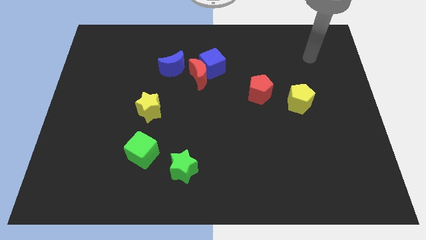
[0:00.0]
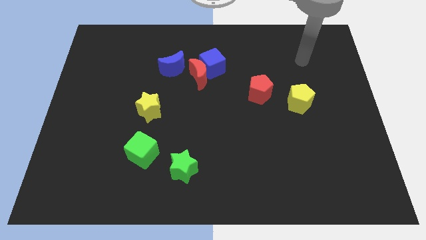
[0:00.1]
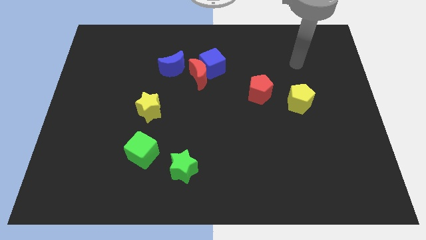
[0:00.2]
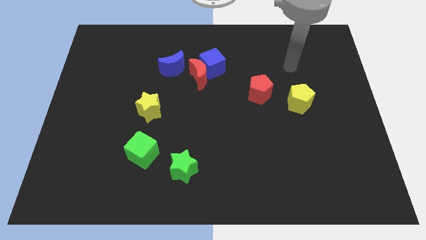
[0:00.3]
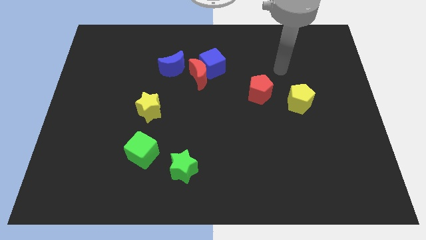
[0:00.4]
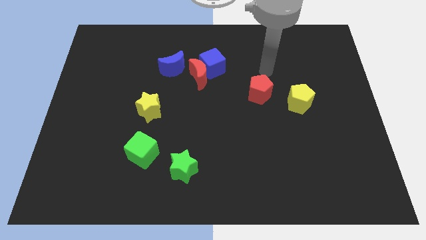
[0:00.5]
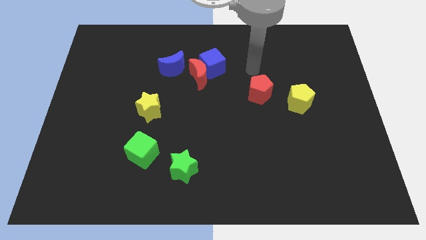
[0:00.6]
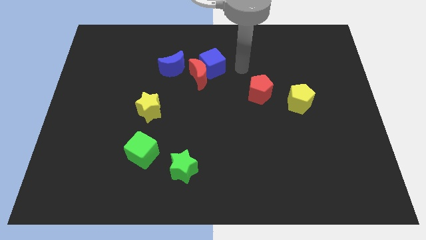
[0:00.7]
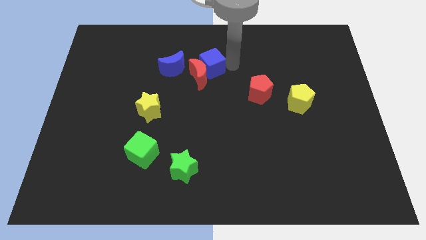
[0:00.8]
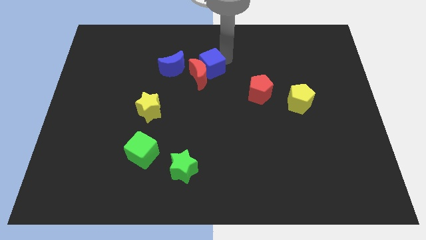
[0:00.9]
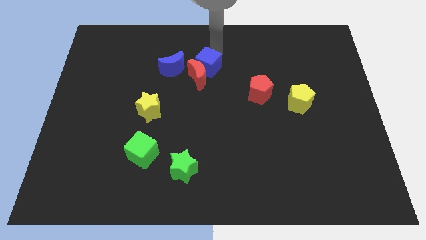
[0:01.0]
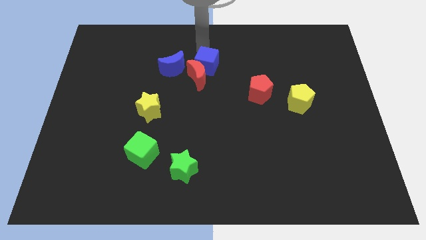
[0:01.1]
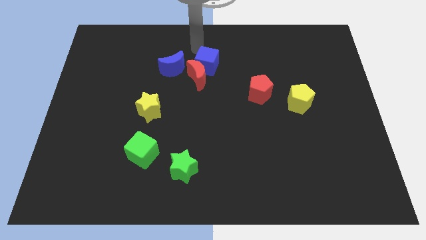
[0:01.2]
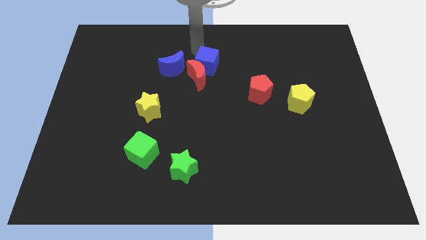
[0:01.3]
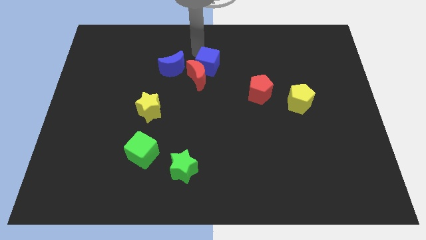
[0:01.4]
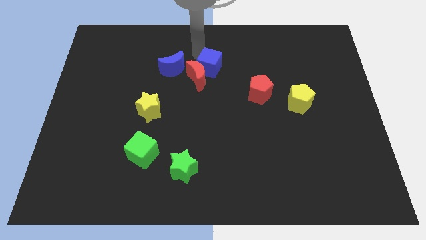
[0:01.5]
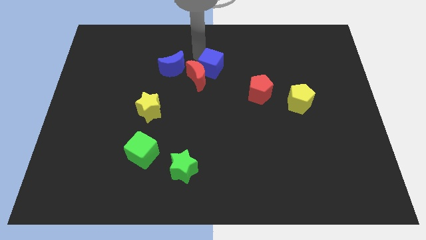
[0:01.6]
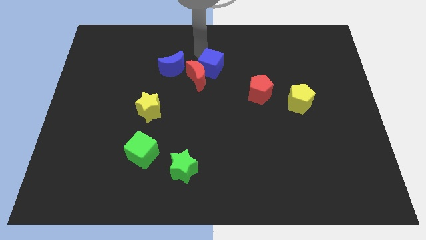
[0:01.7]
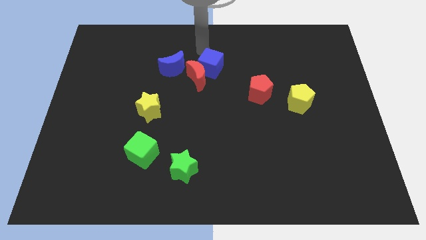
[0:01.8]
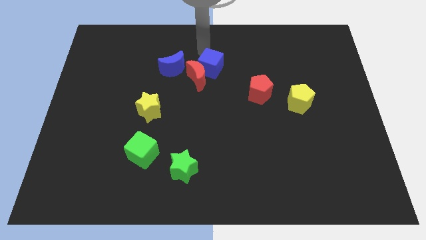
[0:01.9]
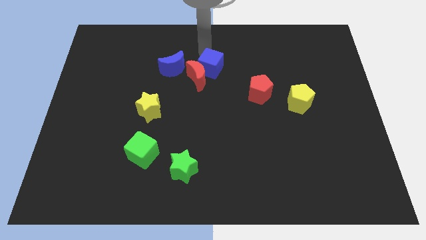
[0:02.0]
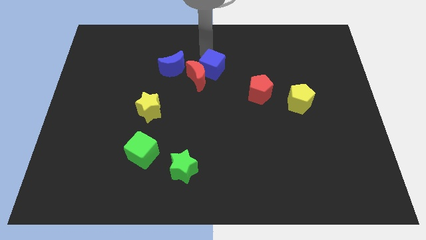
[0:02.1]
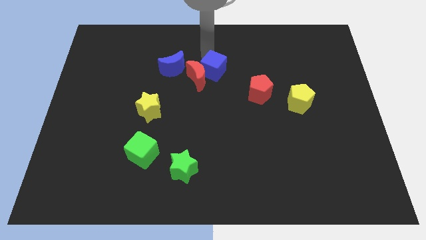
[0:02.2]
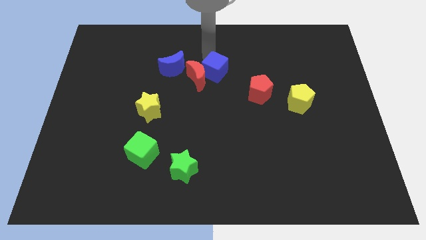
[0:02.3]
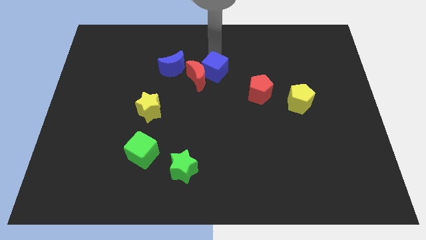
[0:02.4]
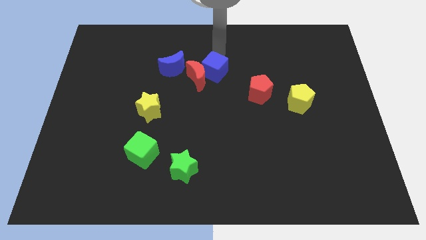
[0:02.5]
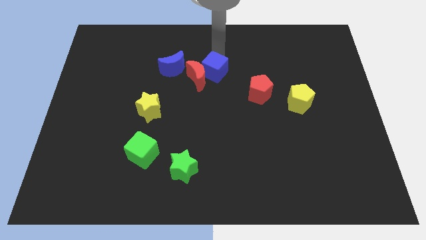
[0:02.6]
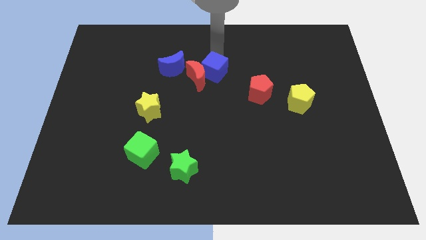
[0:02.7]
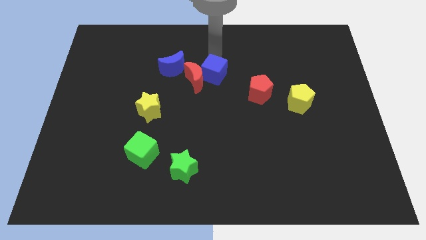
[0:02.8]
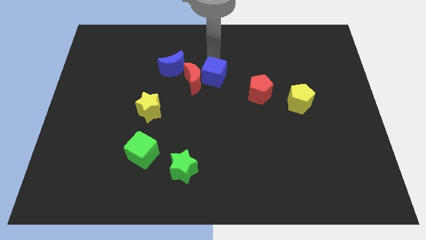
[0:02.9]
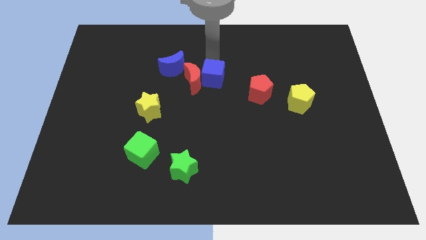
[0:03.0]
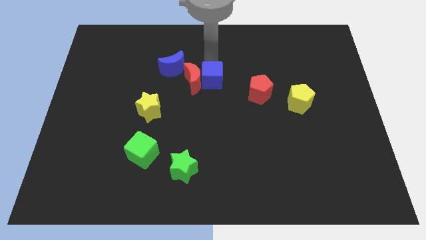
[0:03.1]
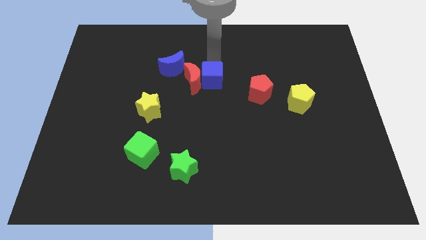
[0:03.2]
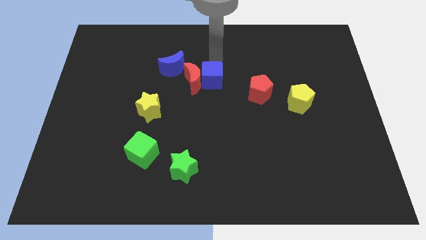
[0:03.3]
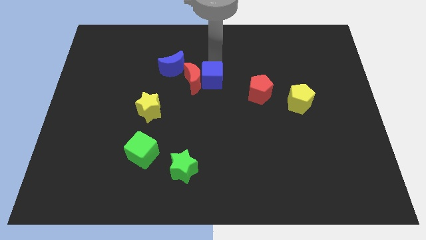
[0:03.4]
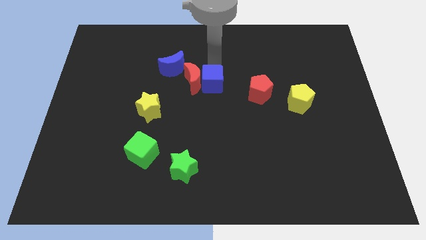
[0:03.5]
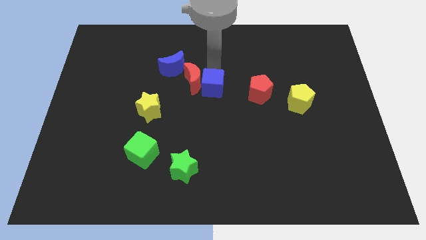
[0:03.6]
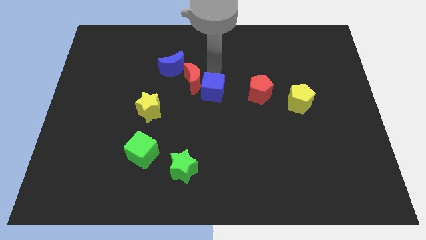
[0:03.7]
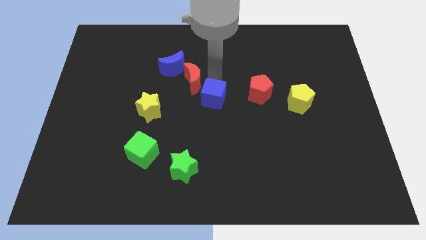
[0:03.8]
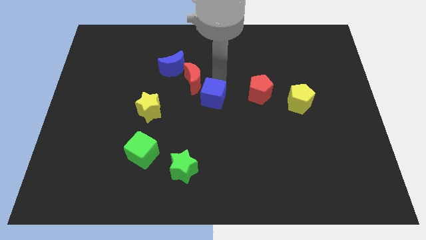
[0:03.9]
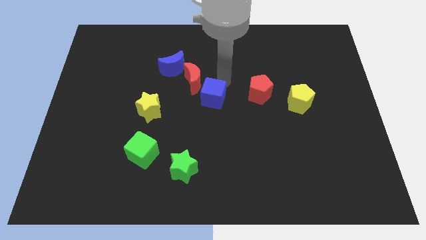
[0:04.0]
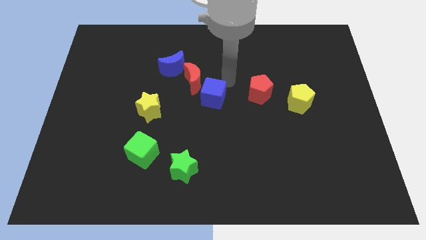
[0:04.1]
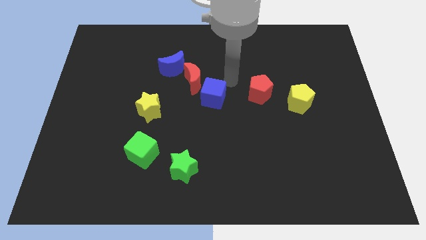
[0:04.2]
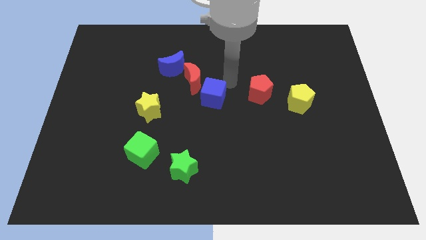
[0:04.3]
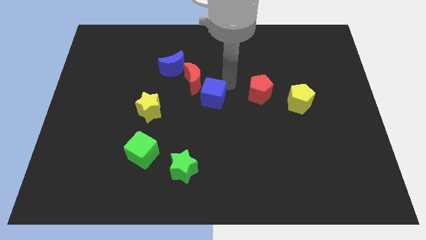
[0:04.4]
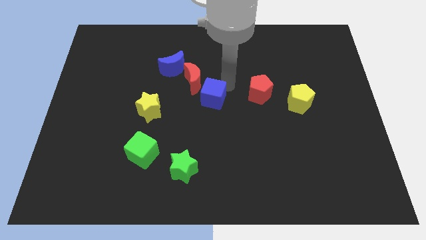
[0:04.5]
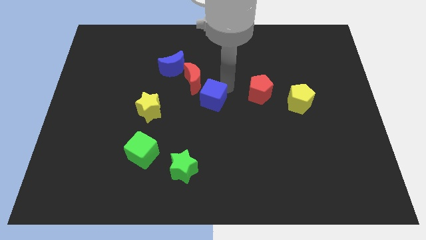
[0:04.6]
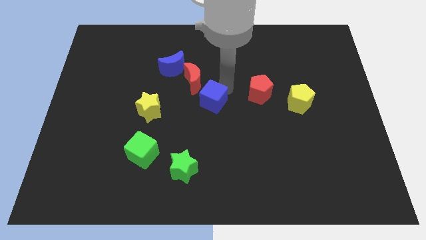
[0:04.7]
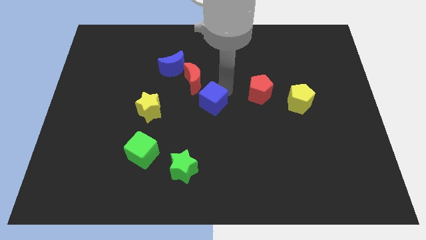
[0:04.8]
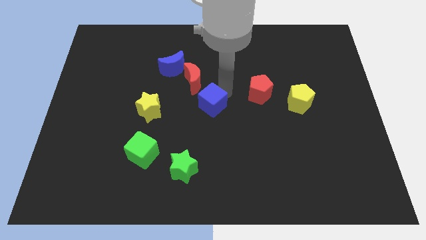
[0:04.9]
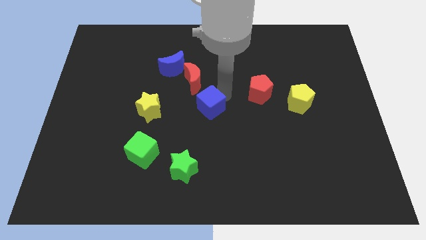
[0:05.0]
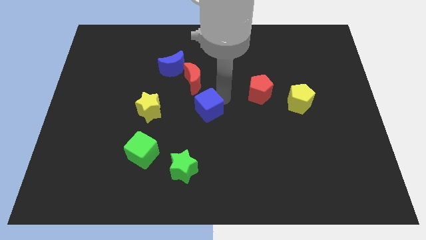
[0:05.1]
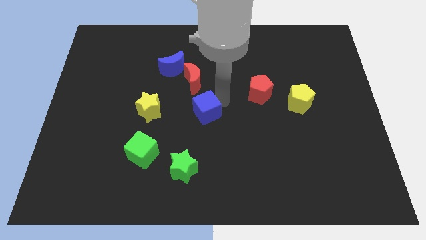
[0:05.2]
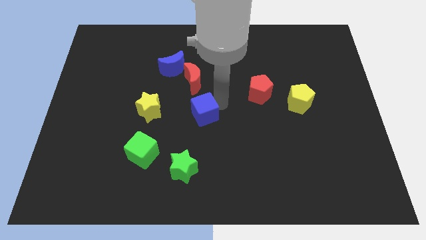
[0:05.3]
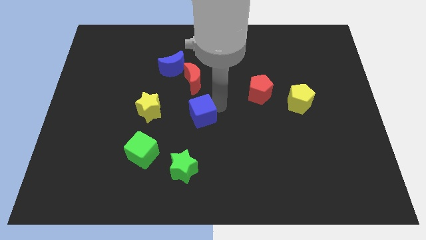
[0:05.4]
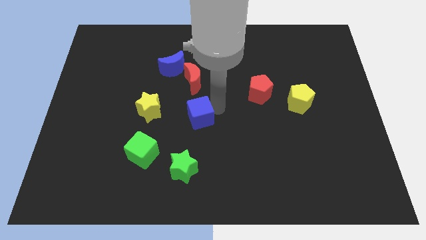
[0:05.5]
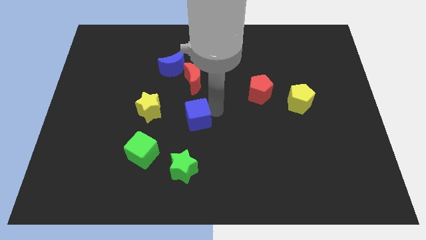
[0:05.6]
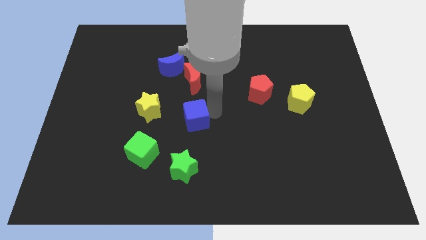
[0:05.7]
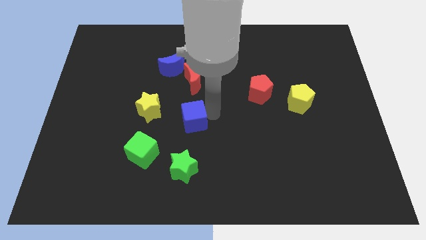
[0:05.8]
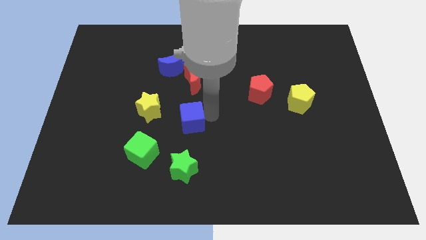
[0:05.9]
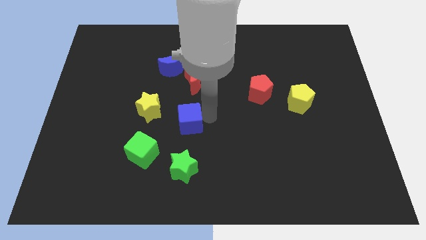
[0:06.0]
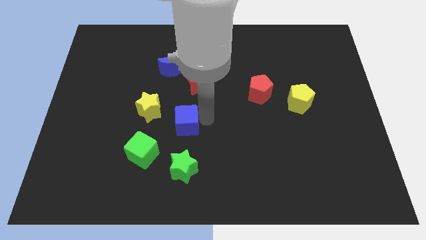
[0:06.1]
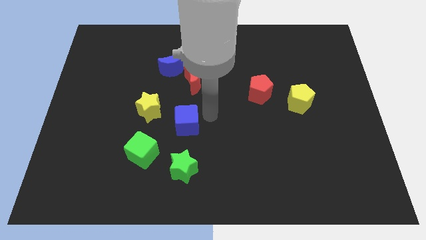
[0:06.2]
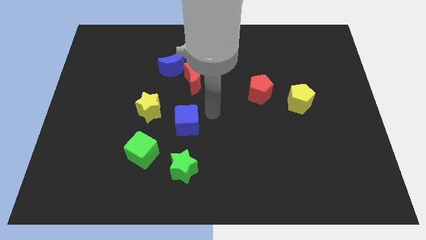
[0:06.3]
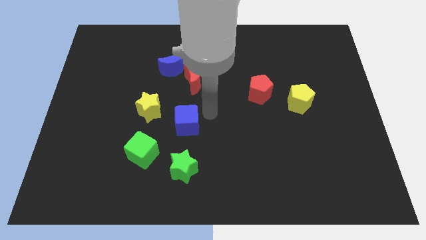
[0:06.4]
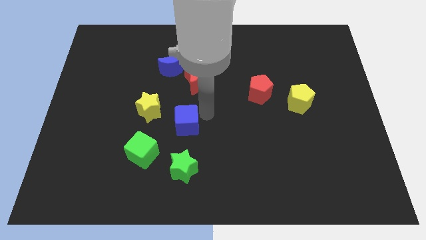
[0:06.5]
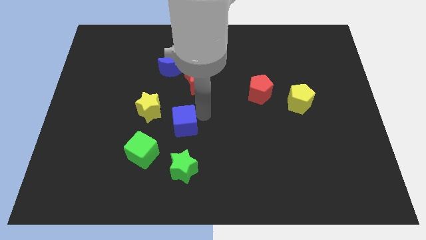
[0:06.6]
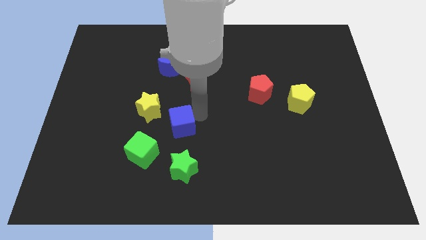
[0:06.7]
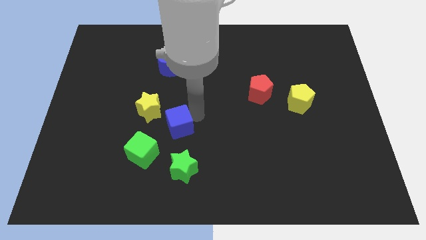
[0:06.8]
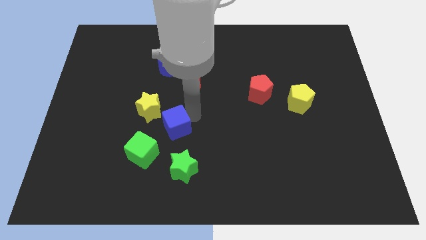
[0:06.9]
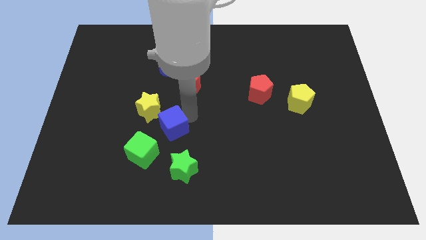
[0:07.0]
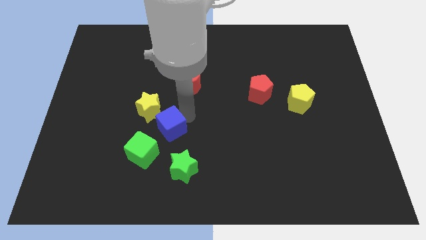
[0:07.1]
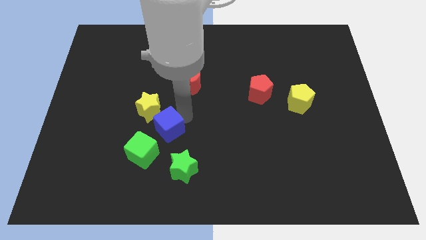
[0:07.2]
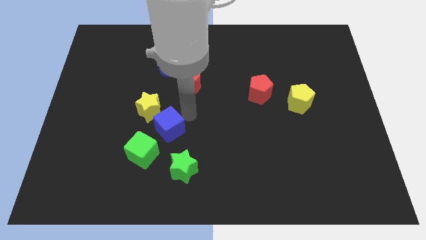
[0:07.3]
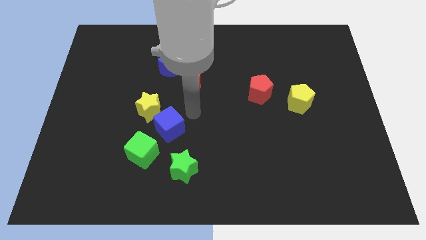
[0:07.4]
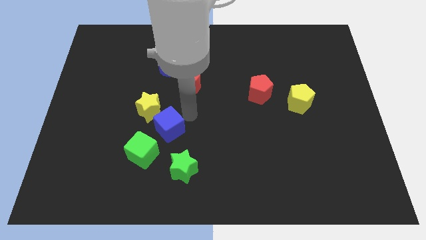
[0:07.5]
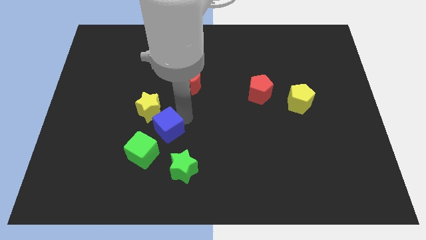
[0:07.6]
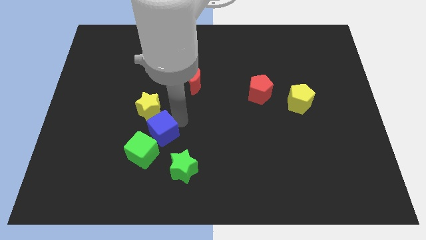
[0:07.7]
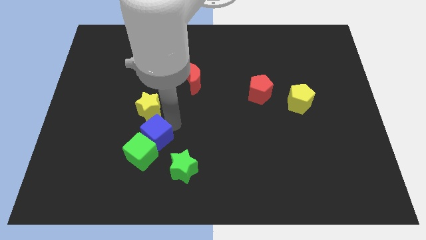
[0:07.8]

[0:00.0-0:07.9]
put the blue cube towards the green cube
